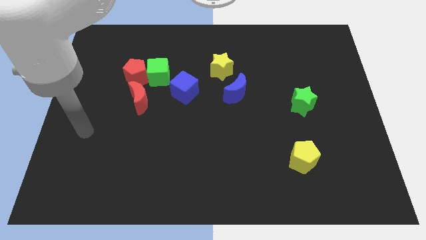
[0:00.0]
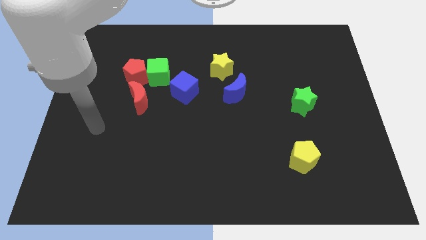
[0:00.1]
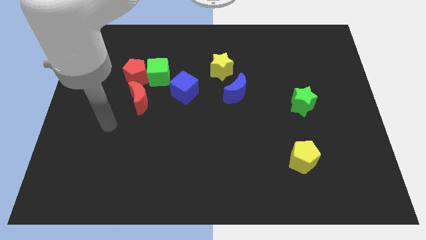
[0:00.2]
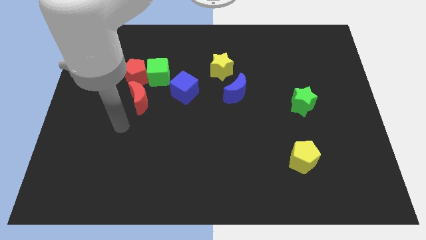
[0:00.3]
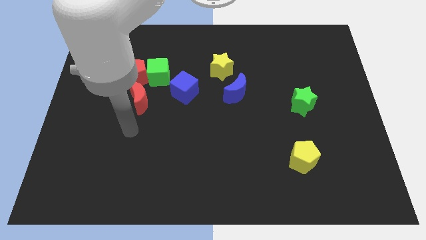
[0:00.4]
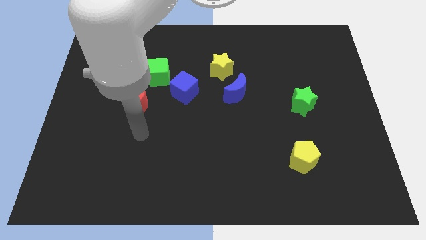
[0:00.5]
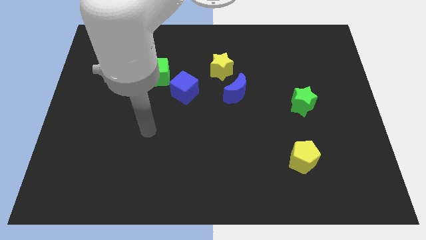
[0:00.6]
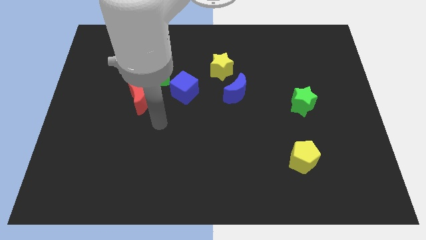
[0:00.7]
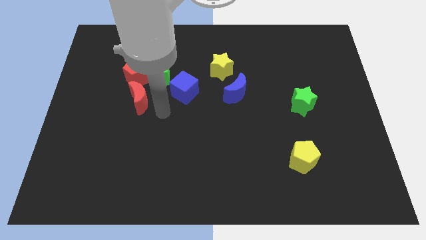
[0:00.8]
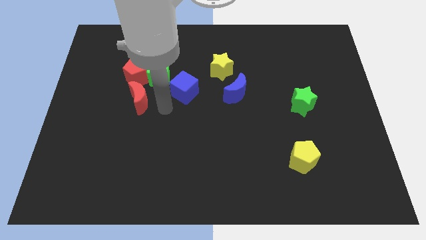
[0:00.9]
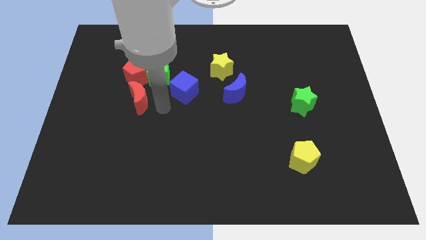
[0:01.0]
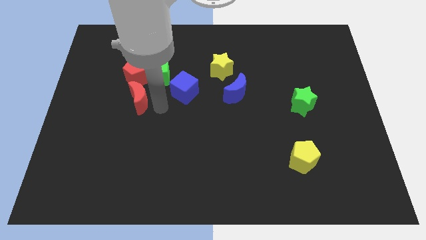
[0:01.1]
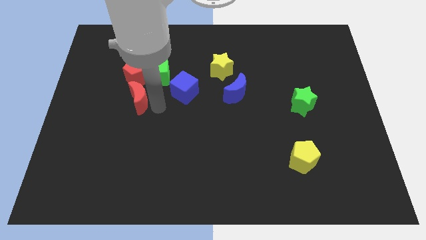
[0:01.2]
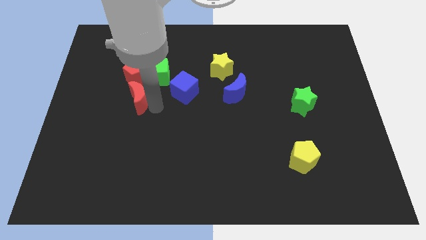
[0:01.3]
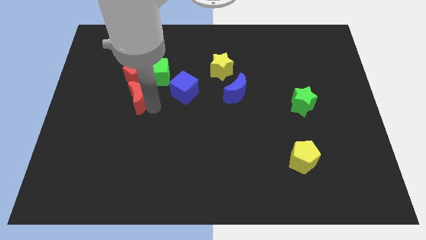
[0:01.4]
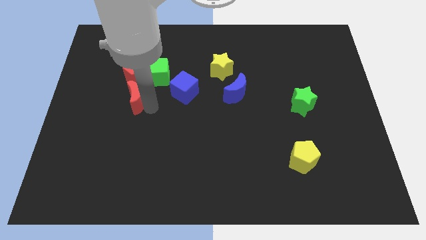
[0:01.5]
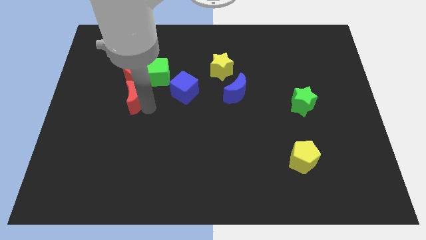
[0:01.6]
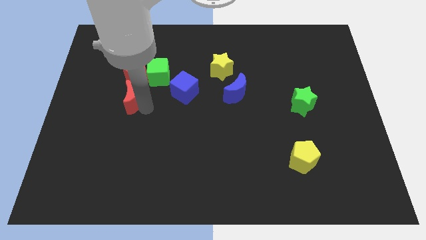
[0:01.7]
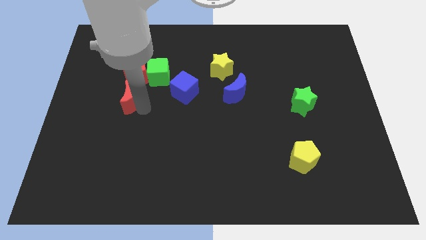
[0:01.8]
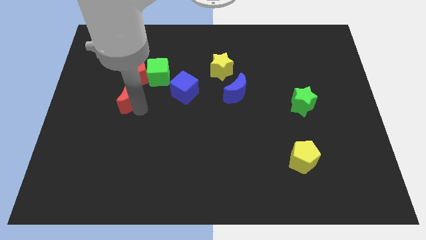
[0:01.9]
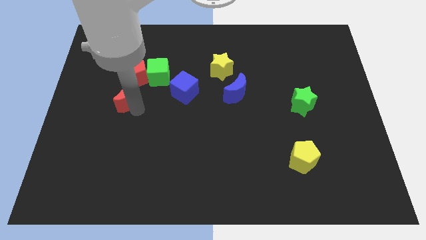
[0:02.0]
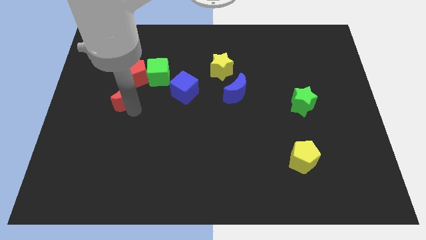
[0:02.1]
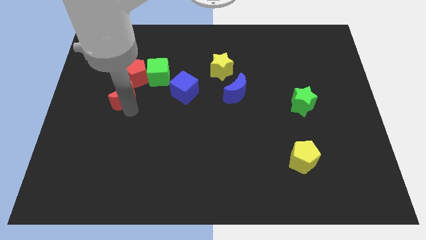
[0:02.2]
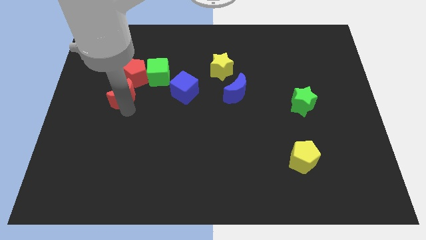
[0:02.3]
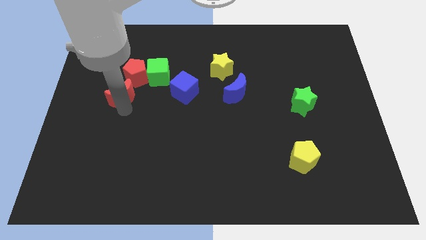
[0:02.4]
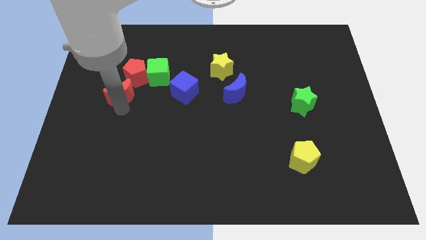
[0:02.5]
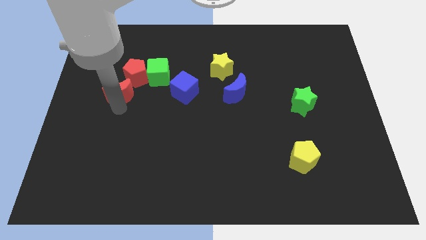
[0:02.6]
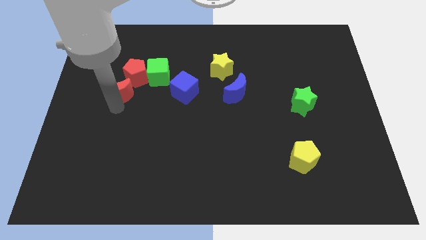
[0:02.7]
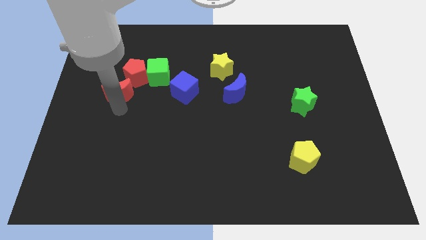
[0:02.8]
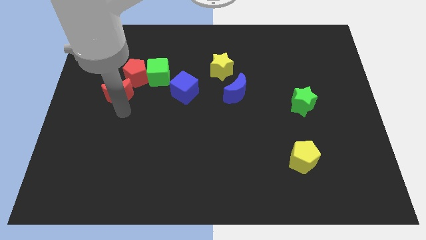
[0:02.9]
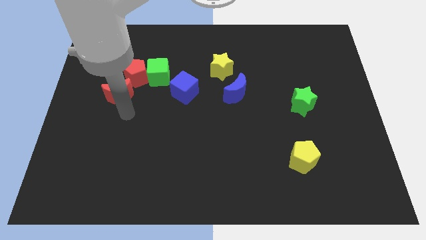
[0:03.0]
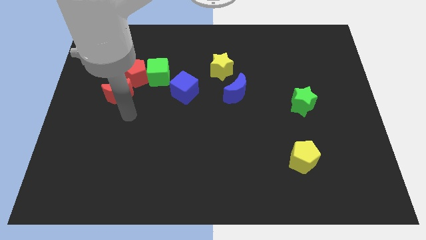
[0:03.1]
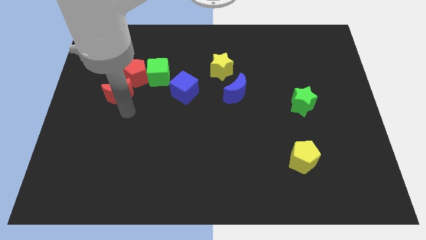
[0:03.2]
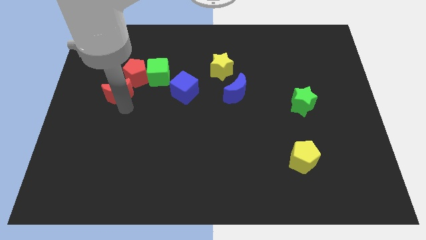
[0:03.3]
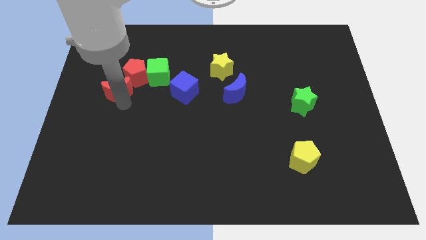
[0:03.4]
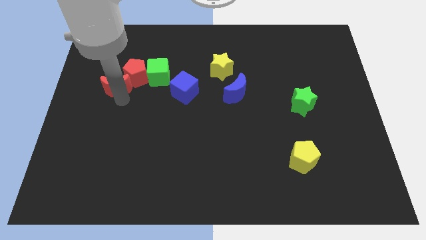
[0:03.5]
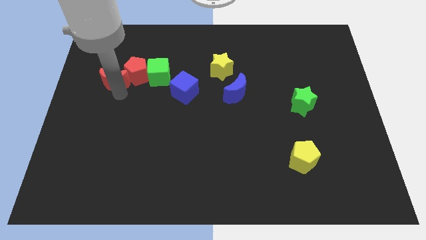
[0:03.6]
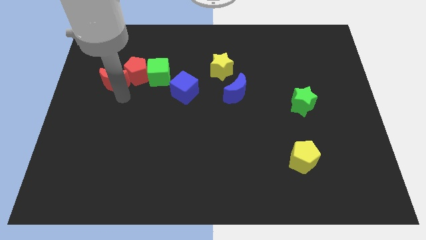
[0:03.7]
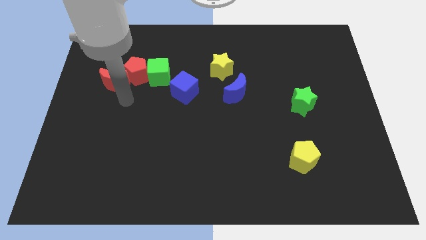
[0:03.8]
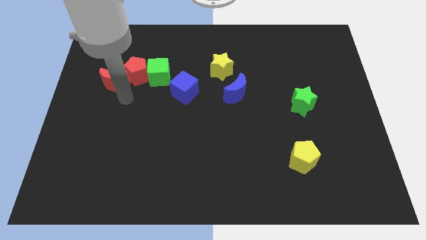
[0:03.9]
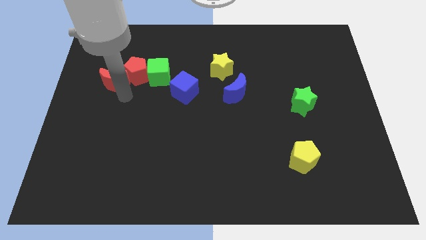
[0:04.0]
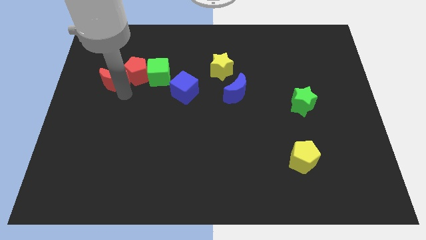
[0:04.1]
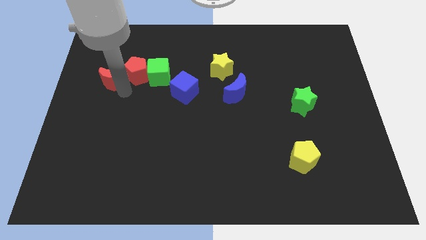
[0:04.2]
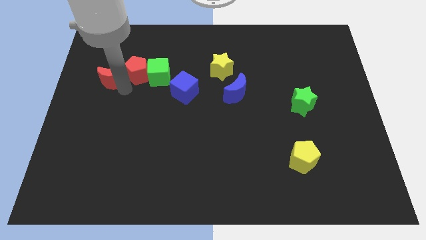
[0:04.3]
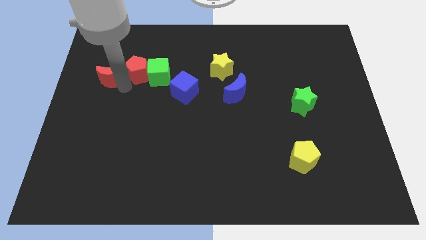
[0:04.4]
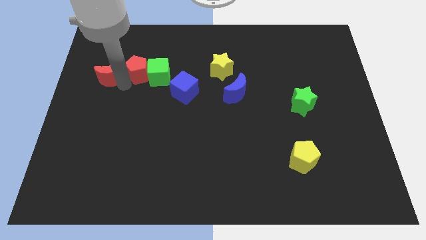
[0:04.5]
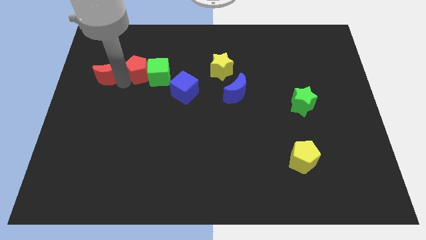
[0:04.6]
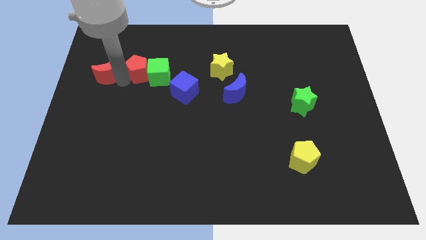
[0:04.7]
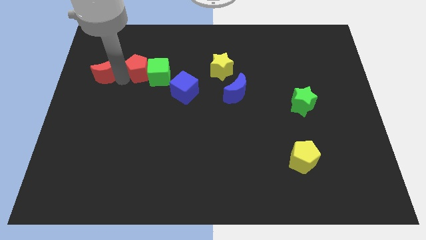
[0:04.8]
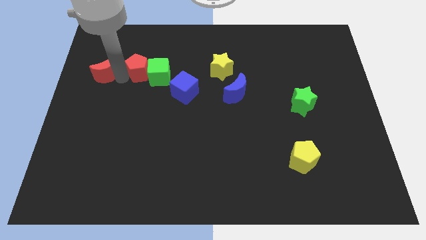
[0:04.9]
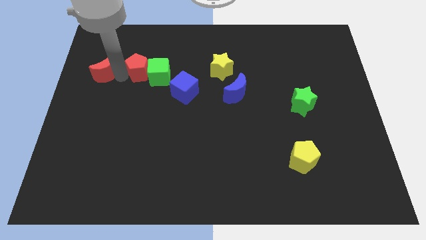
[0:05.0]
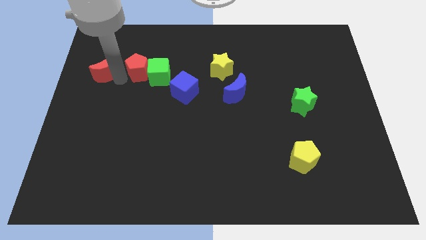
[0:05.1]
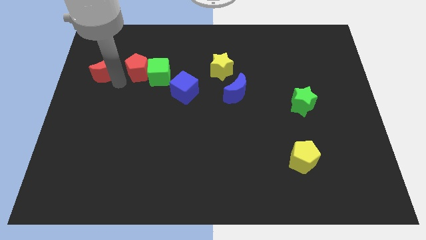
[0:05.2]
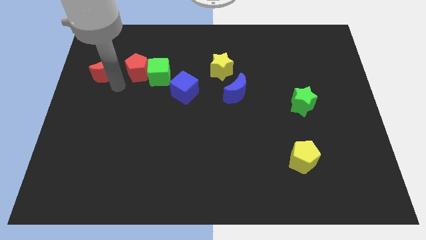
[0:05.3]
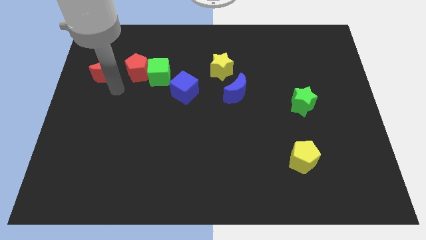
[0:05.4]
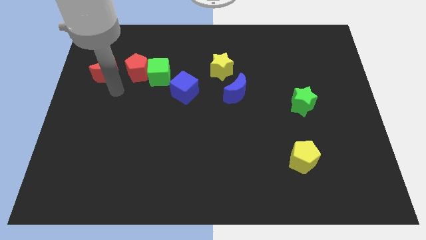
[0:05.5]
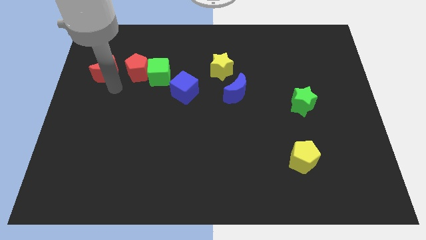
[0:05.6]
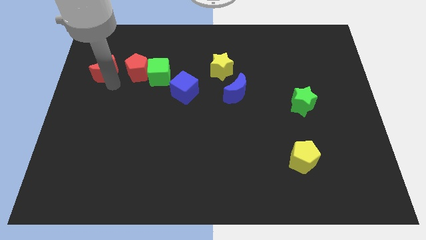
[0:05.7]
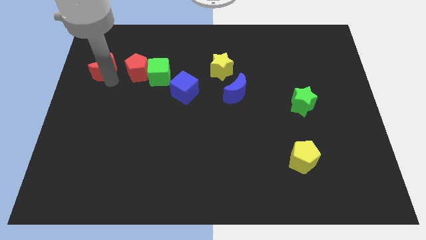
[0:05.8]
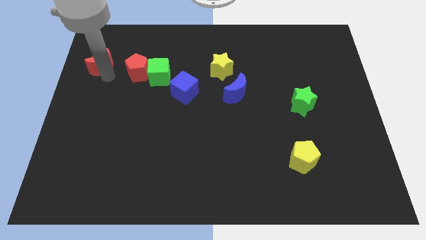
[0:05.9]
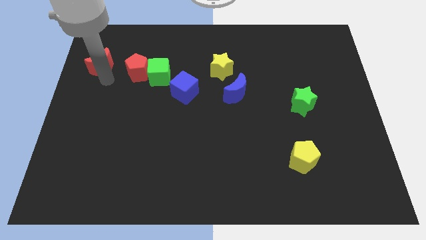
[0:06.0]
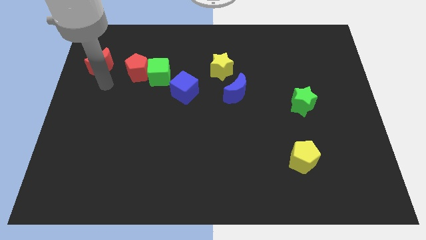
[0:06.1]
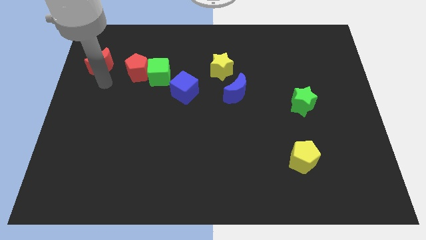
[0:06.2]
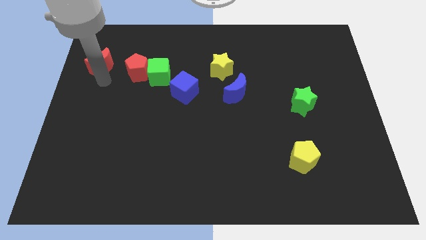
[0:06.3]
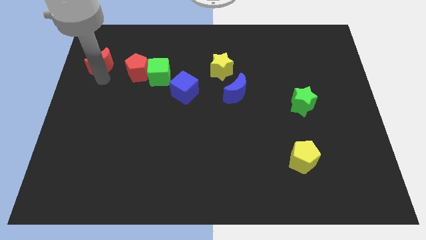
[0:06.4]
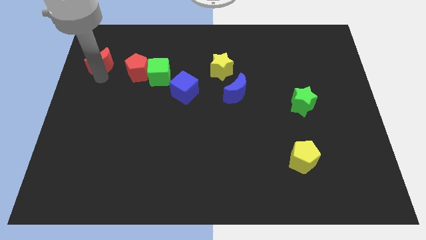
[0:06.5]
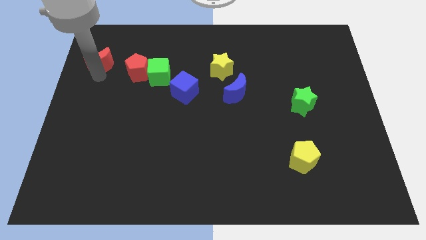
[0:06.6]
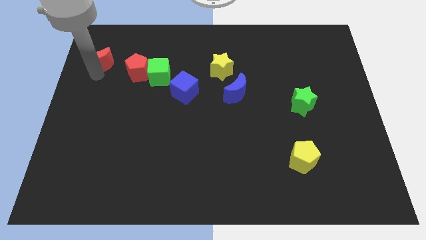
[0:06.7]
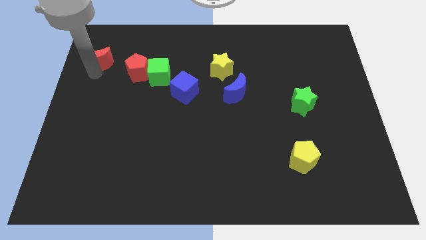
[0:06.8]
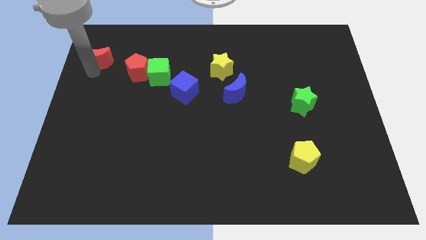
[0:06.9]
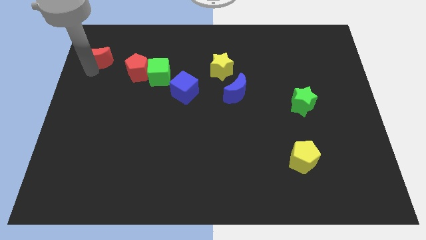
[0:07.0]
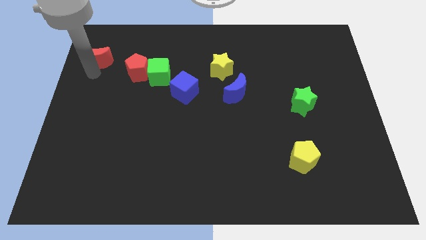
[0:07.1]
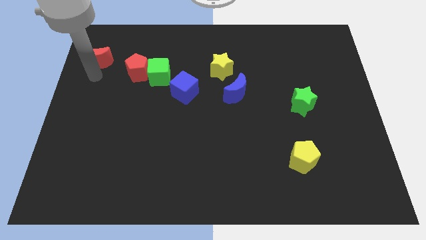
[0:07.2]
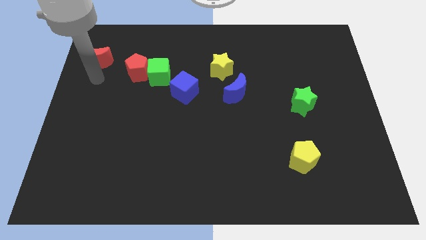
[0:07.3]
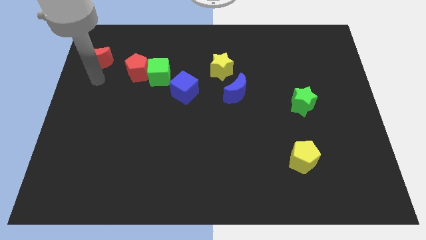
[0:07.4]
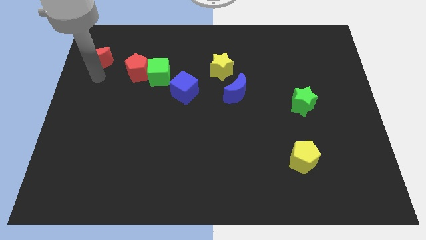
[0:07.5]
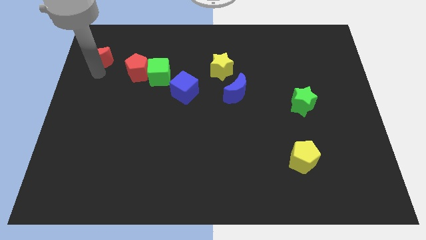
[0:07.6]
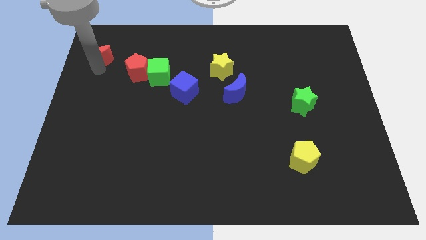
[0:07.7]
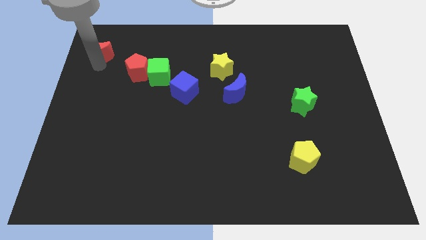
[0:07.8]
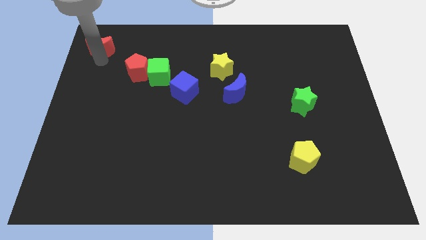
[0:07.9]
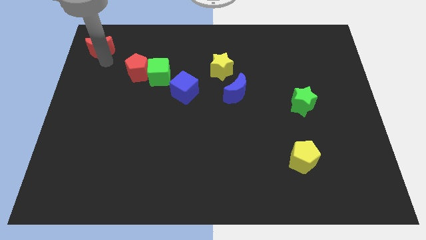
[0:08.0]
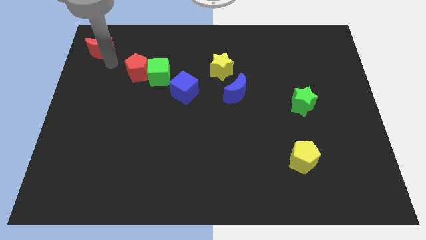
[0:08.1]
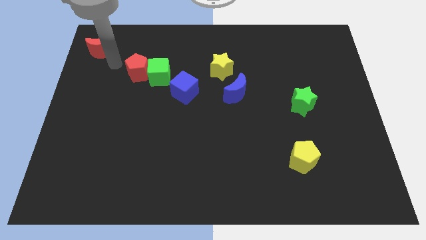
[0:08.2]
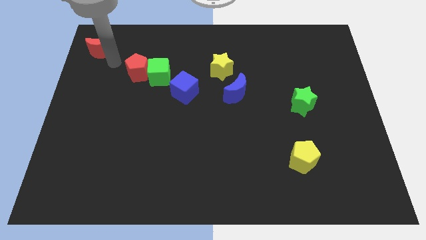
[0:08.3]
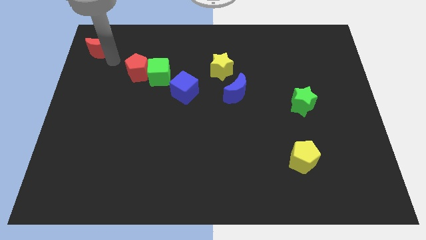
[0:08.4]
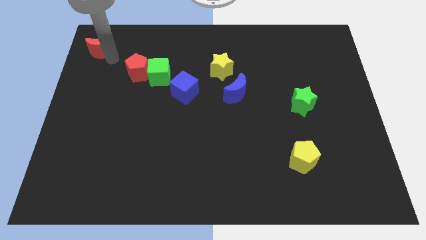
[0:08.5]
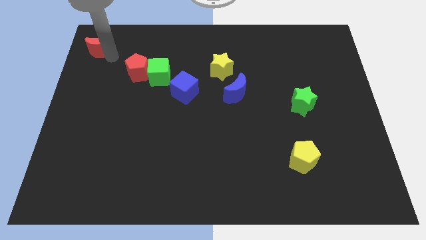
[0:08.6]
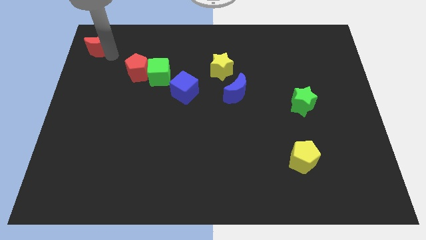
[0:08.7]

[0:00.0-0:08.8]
push the red moon to the upper left corner
